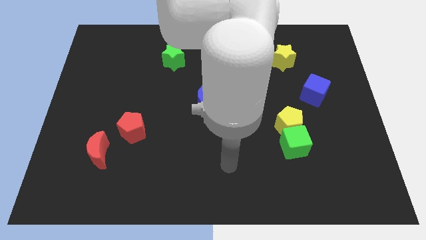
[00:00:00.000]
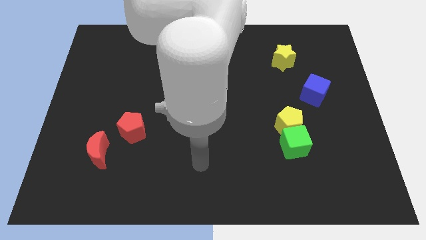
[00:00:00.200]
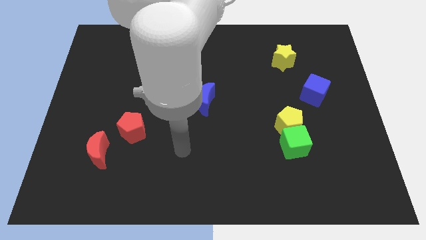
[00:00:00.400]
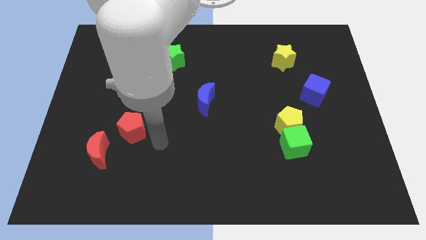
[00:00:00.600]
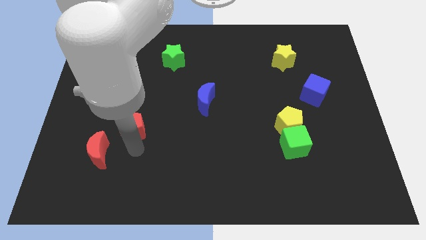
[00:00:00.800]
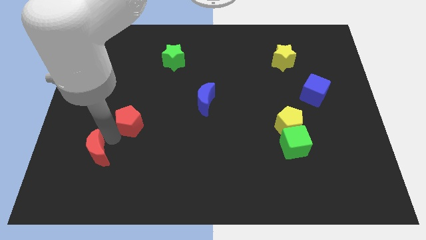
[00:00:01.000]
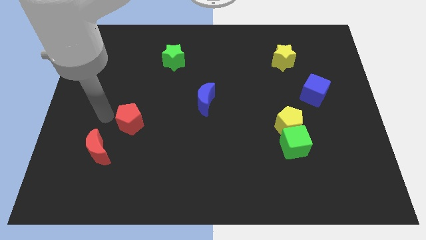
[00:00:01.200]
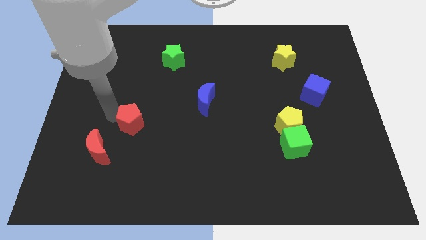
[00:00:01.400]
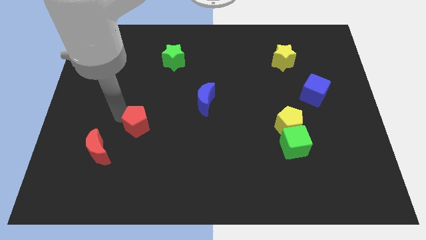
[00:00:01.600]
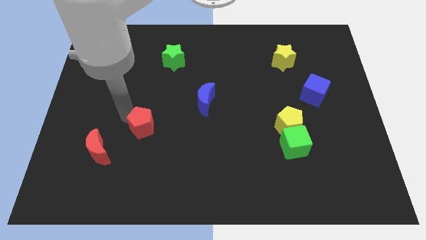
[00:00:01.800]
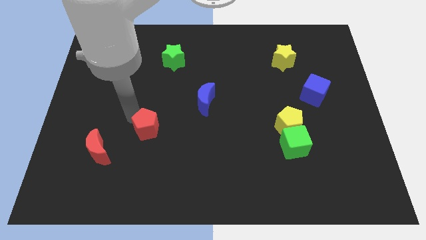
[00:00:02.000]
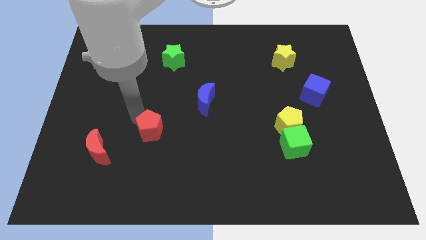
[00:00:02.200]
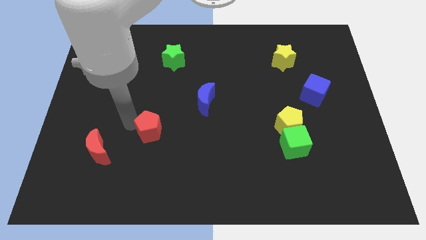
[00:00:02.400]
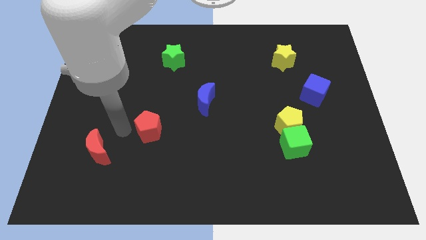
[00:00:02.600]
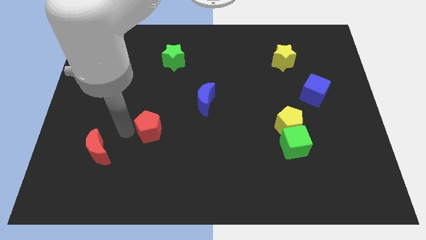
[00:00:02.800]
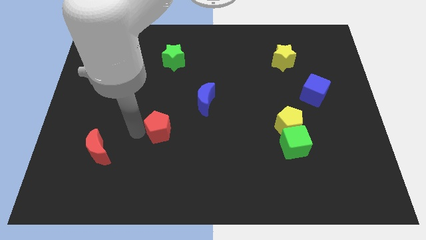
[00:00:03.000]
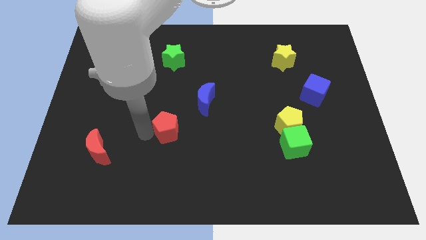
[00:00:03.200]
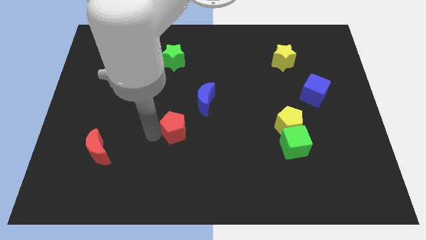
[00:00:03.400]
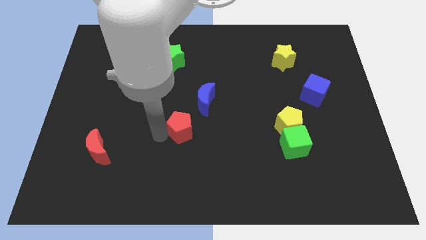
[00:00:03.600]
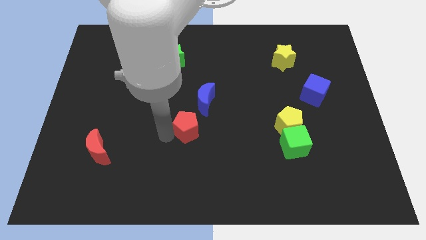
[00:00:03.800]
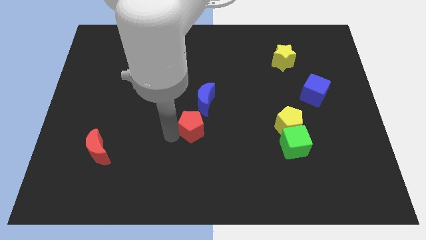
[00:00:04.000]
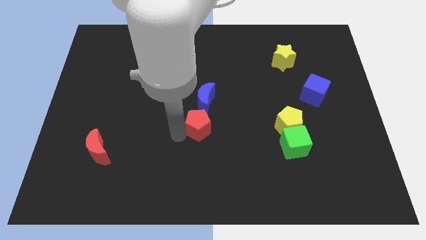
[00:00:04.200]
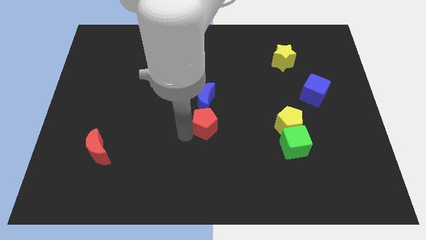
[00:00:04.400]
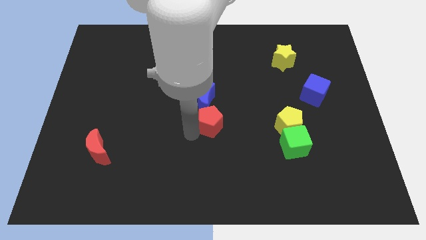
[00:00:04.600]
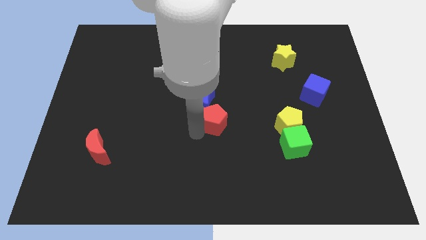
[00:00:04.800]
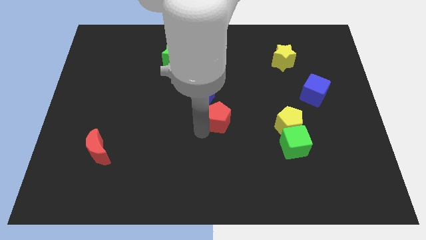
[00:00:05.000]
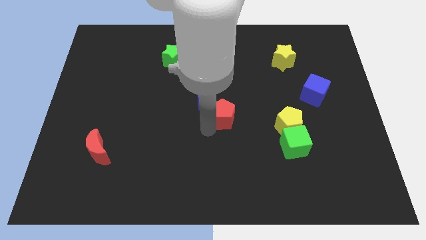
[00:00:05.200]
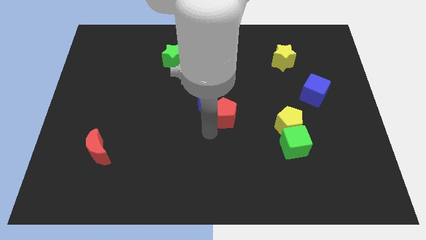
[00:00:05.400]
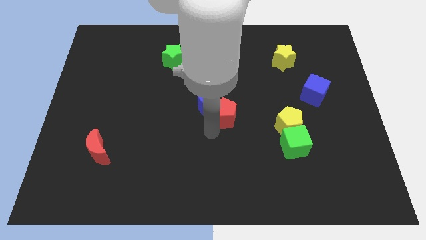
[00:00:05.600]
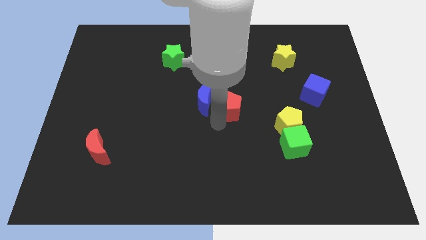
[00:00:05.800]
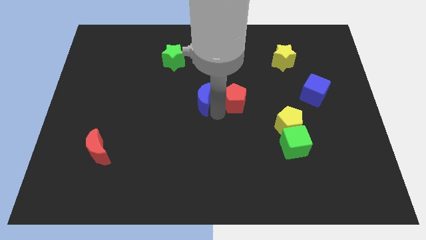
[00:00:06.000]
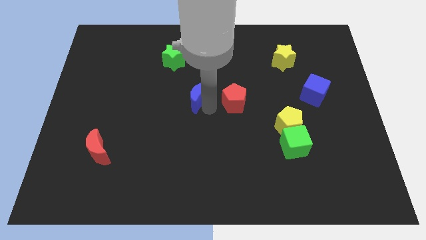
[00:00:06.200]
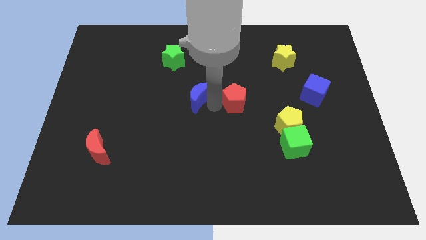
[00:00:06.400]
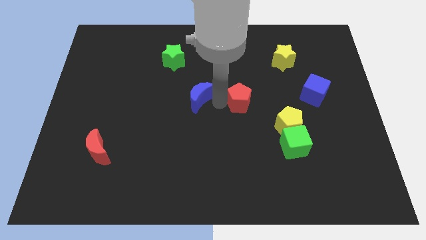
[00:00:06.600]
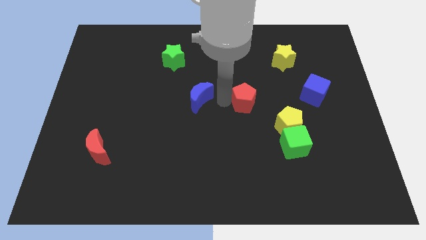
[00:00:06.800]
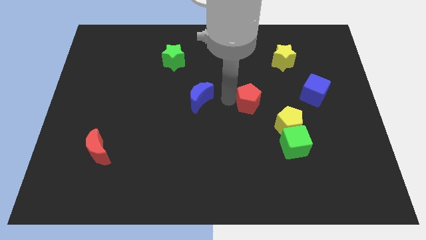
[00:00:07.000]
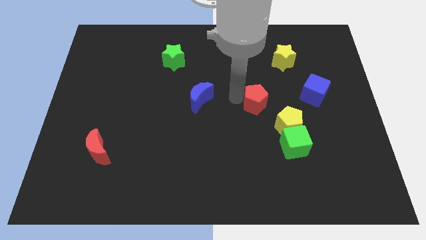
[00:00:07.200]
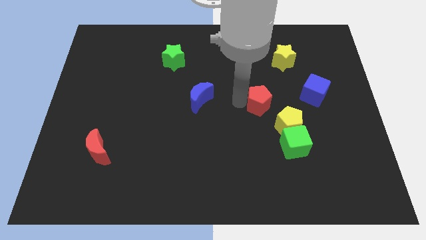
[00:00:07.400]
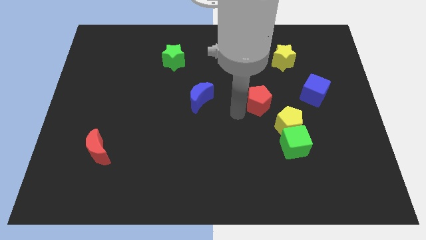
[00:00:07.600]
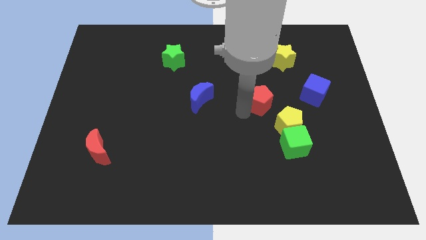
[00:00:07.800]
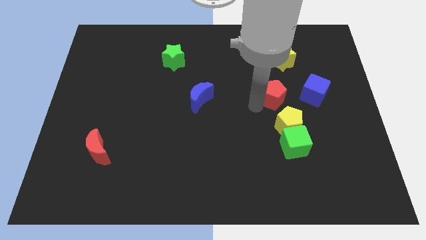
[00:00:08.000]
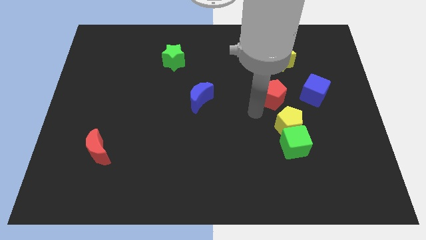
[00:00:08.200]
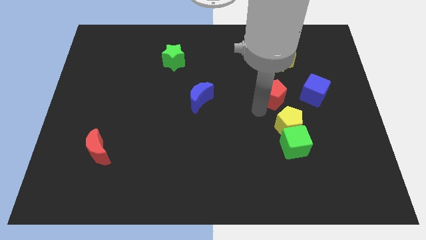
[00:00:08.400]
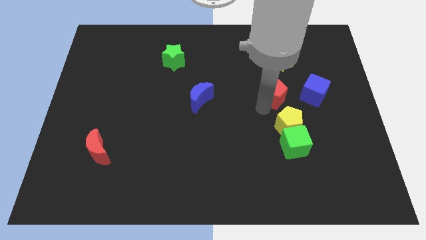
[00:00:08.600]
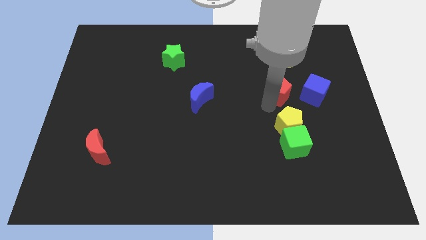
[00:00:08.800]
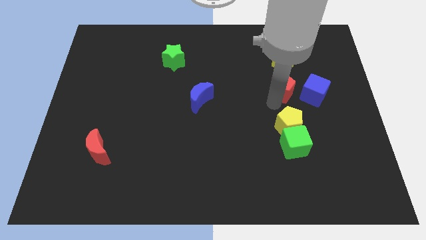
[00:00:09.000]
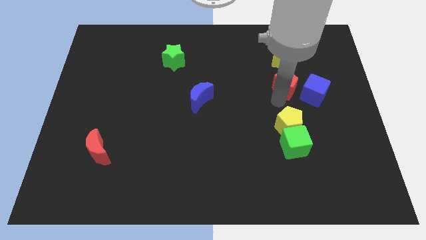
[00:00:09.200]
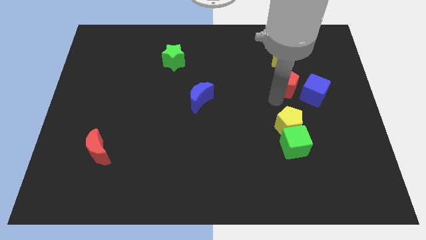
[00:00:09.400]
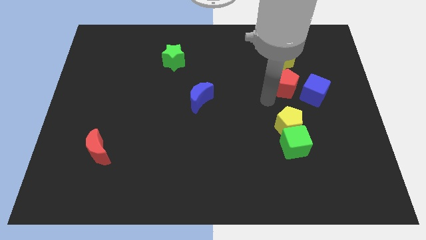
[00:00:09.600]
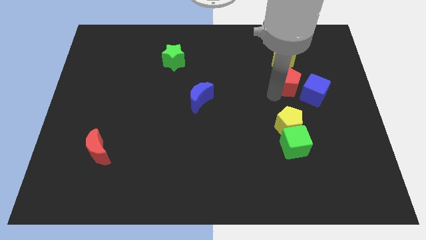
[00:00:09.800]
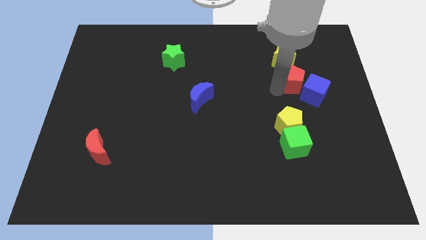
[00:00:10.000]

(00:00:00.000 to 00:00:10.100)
put the red pentagon to the top side of the blue cube

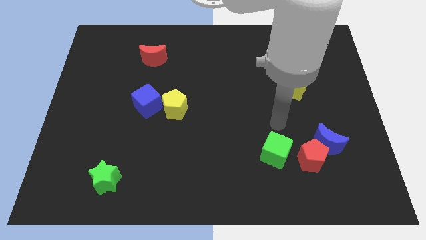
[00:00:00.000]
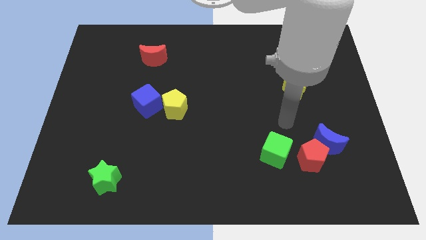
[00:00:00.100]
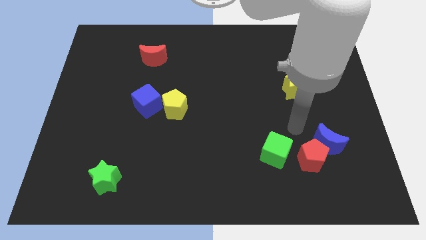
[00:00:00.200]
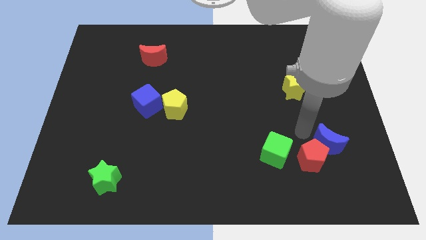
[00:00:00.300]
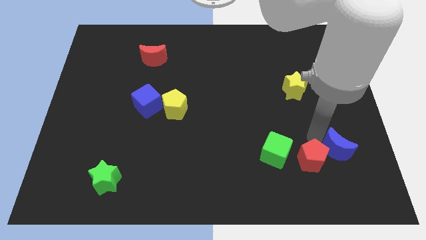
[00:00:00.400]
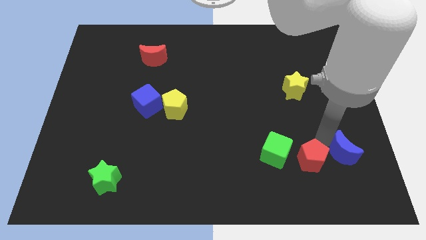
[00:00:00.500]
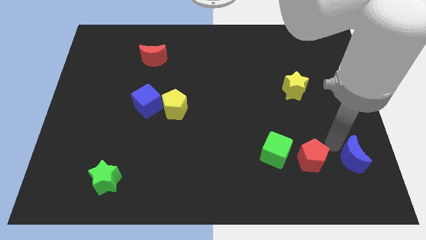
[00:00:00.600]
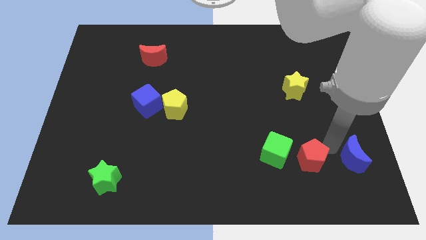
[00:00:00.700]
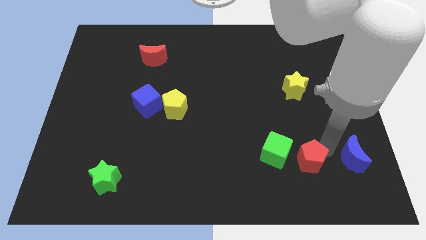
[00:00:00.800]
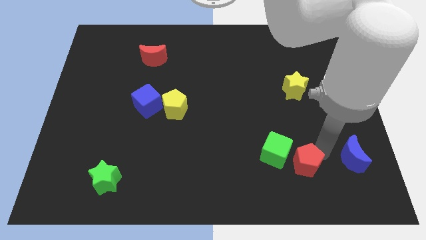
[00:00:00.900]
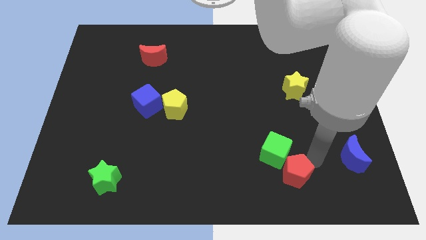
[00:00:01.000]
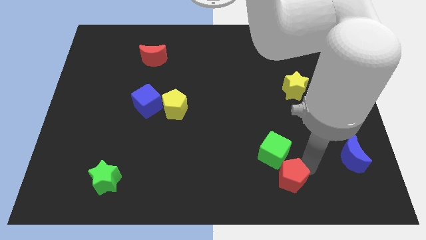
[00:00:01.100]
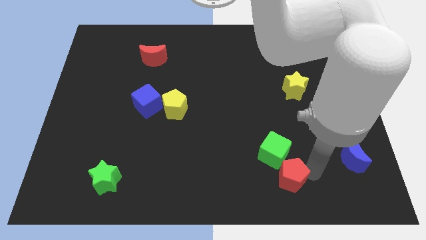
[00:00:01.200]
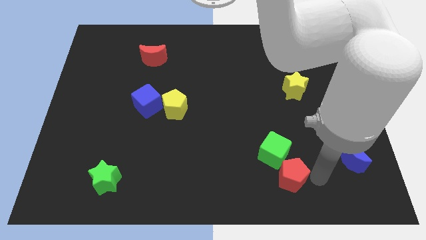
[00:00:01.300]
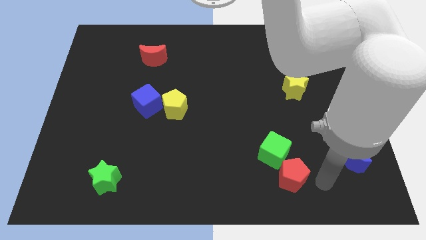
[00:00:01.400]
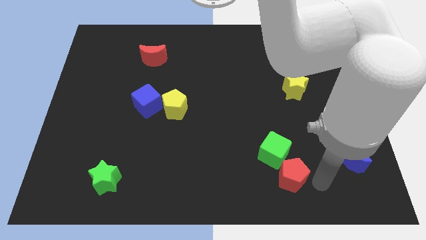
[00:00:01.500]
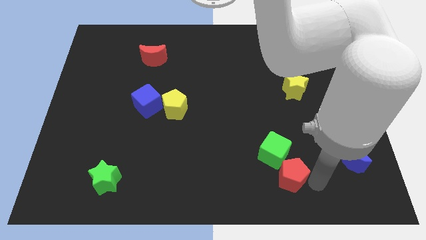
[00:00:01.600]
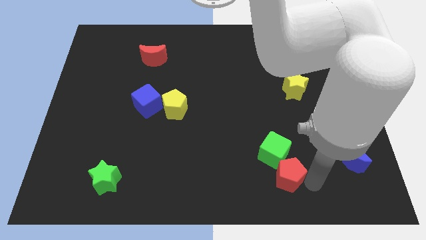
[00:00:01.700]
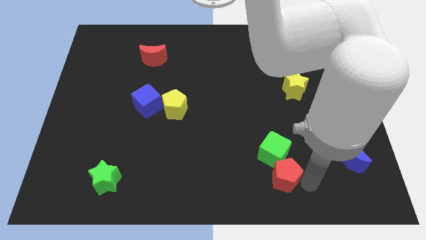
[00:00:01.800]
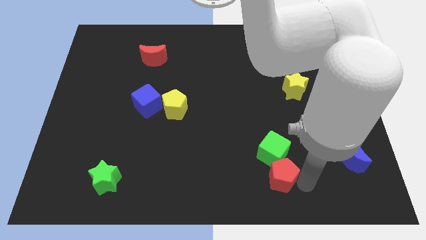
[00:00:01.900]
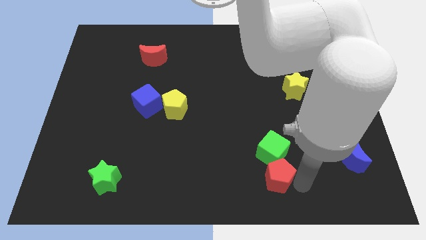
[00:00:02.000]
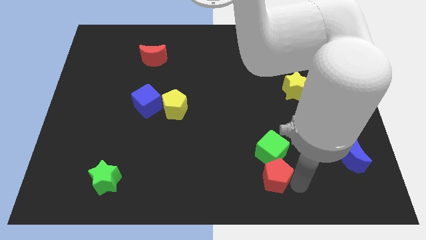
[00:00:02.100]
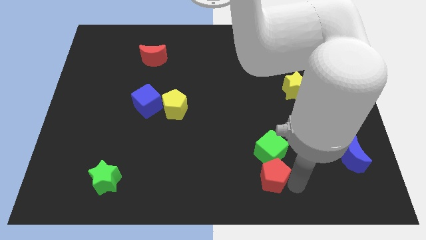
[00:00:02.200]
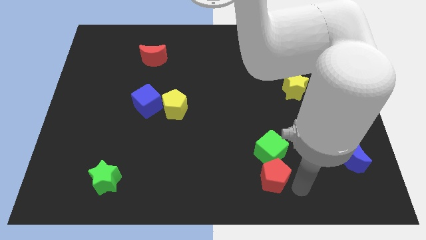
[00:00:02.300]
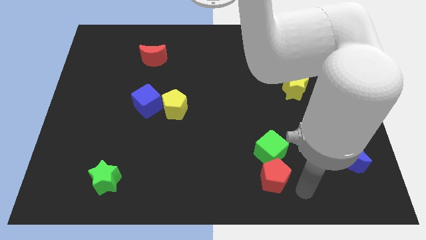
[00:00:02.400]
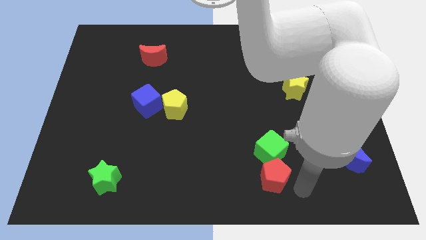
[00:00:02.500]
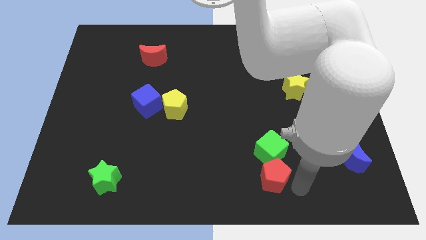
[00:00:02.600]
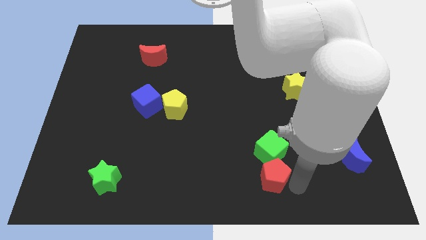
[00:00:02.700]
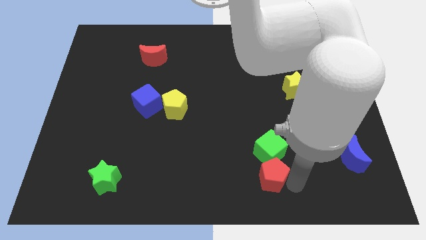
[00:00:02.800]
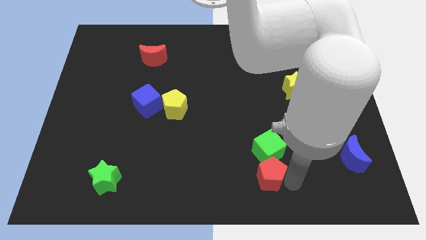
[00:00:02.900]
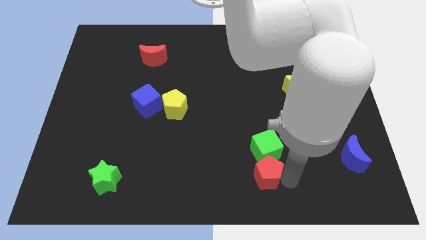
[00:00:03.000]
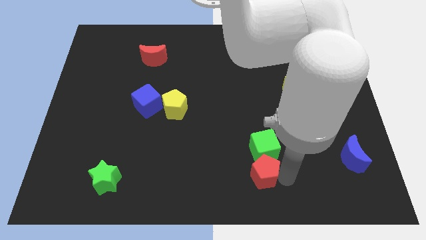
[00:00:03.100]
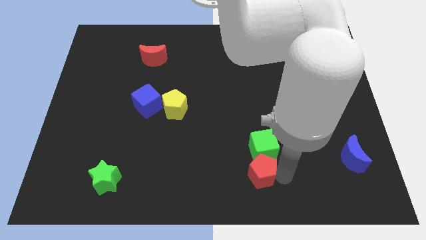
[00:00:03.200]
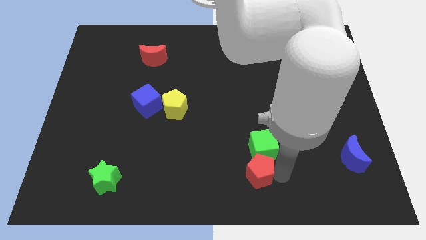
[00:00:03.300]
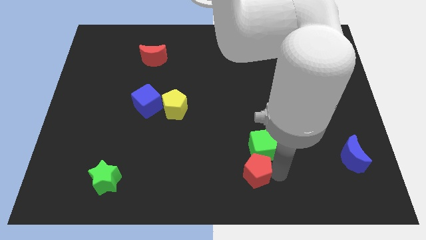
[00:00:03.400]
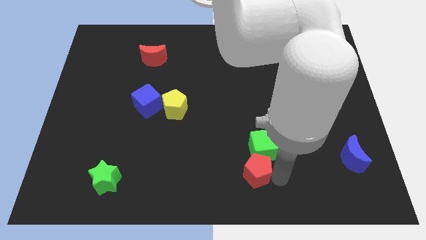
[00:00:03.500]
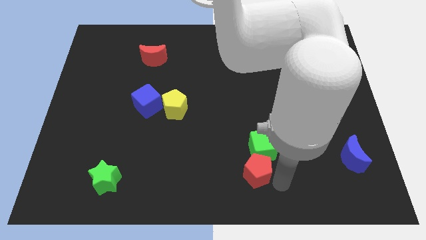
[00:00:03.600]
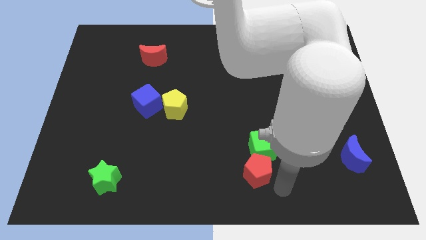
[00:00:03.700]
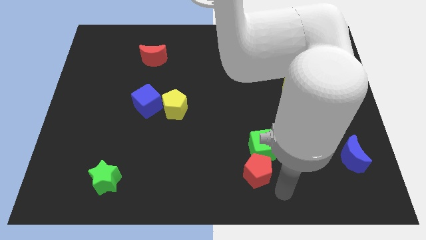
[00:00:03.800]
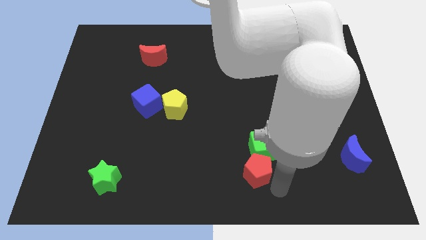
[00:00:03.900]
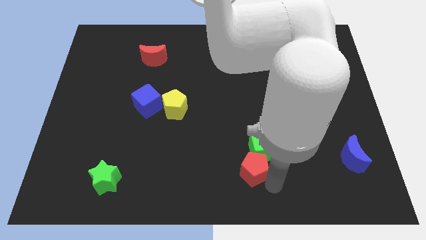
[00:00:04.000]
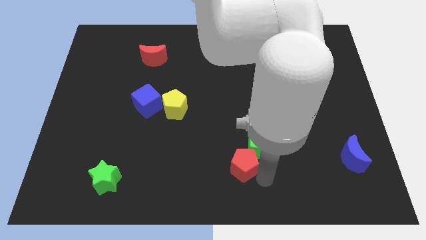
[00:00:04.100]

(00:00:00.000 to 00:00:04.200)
move the red pentagon just left of the green cube
